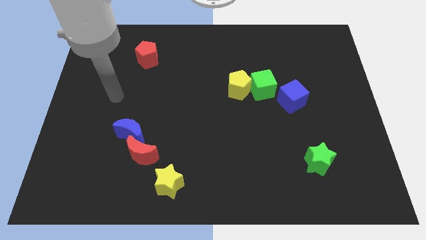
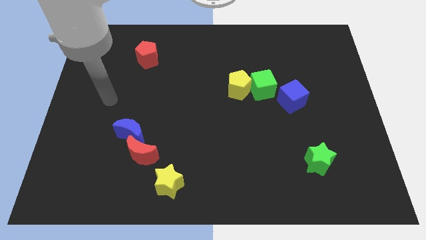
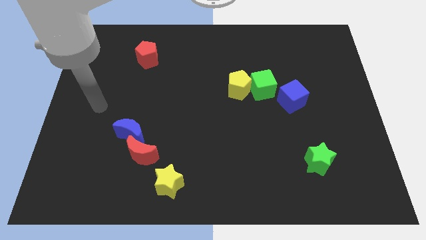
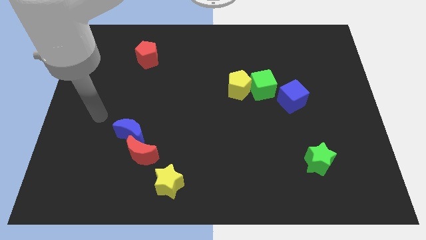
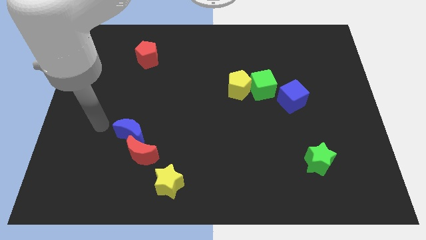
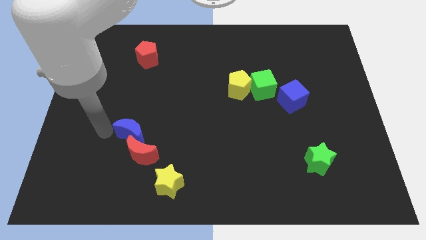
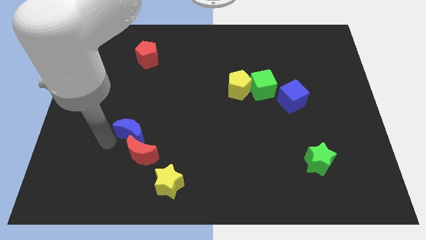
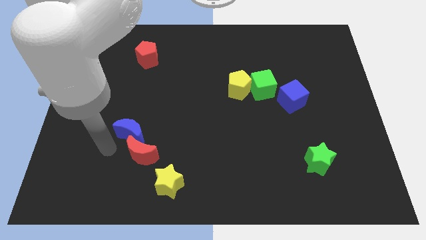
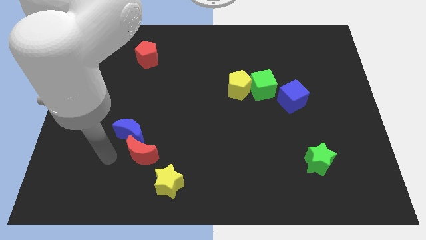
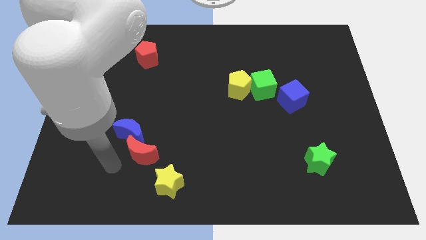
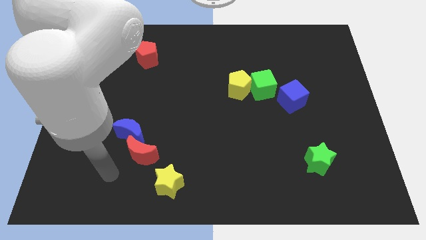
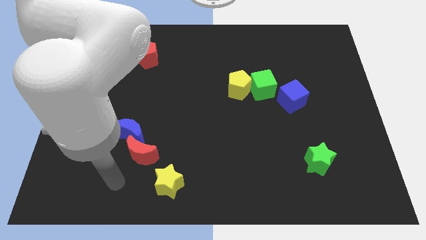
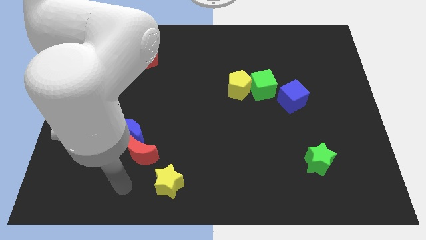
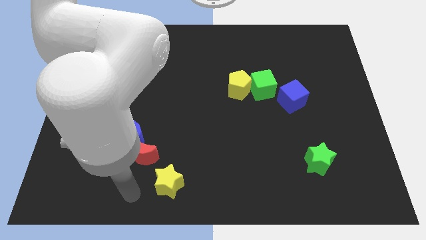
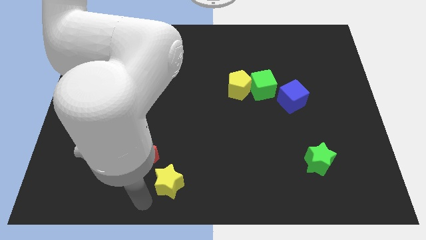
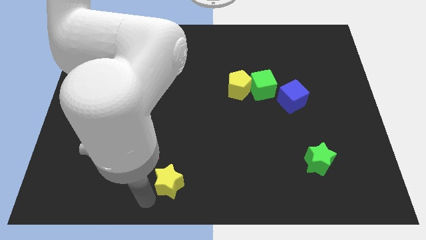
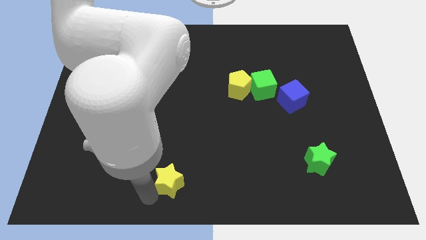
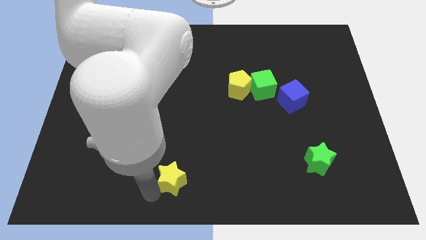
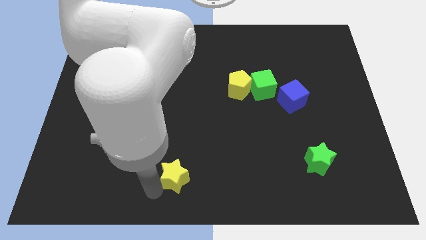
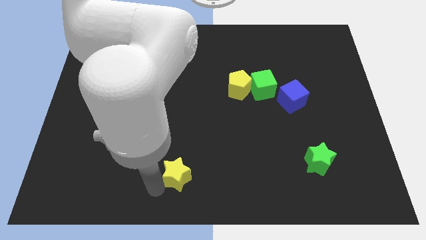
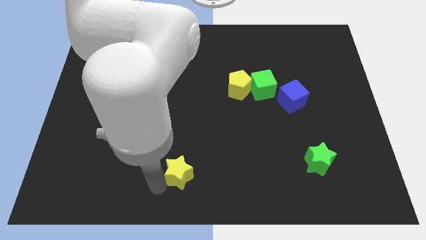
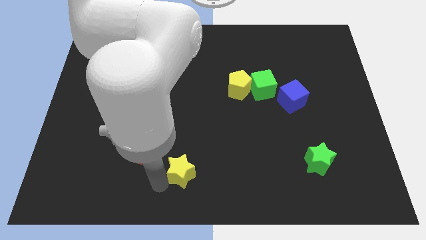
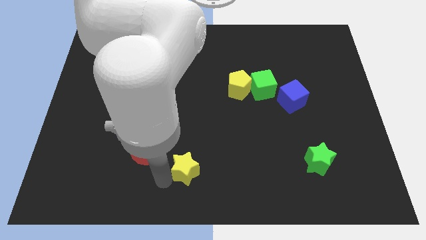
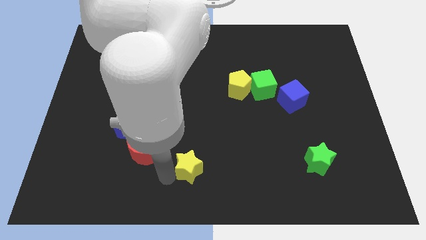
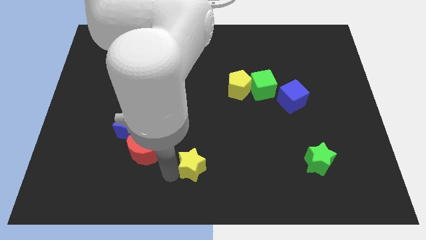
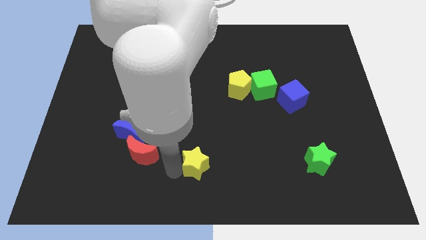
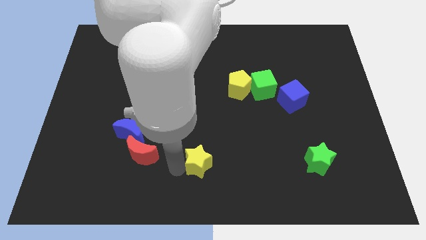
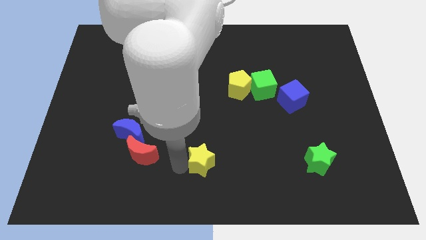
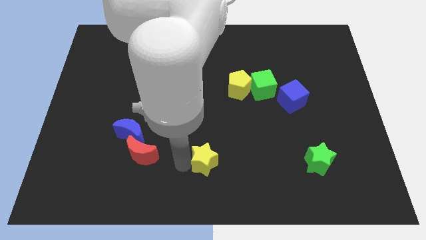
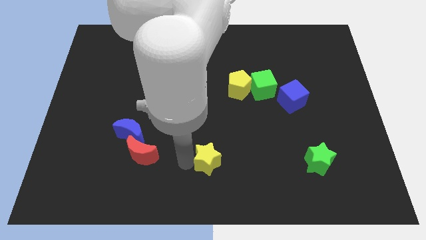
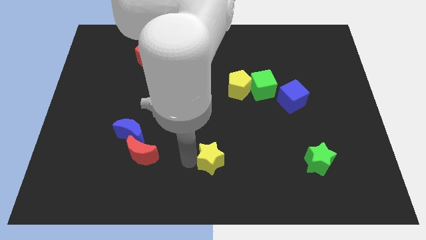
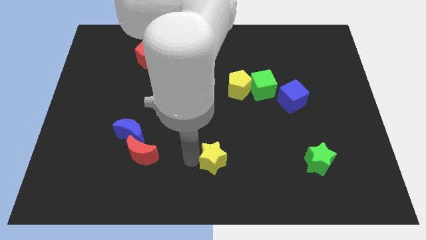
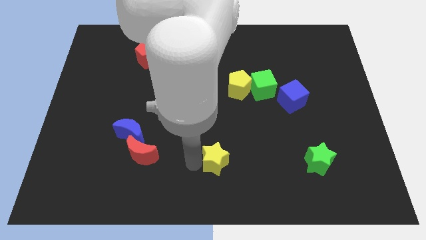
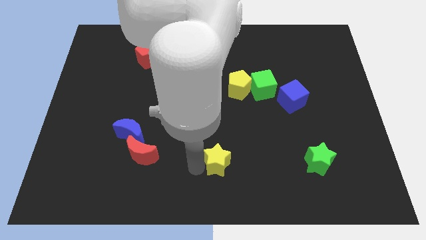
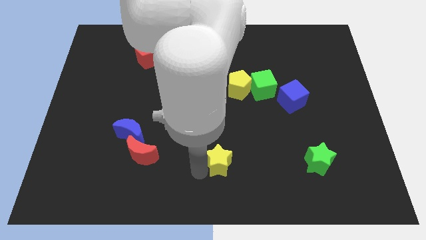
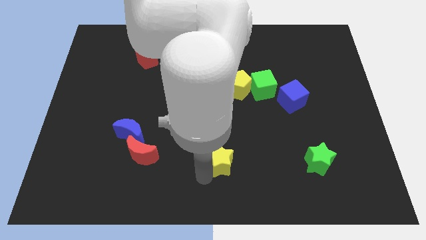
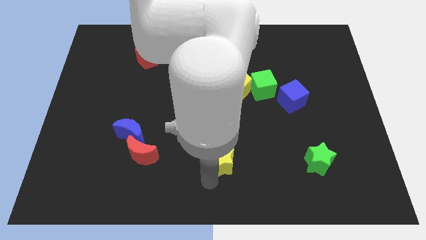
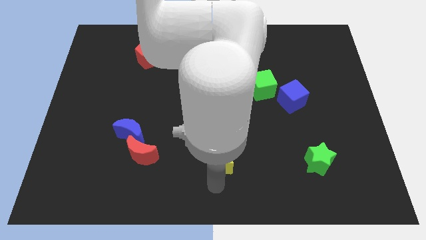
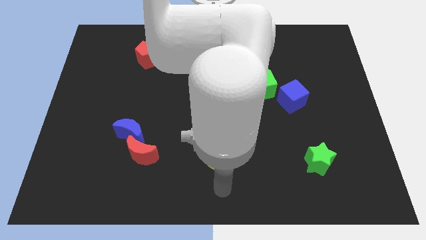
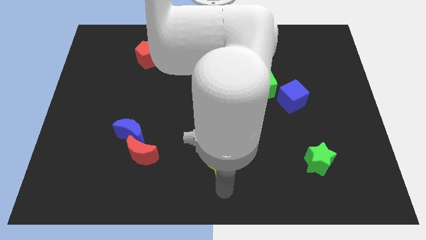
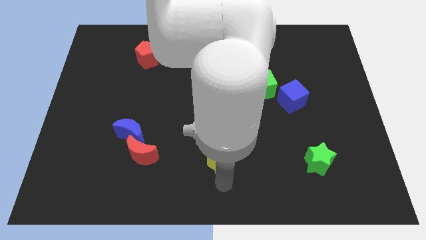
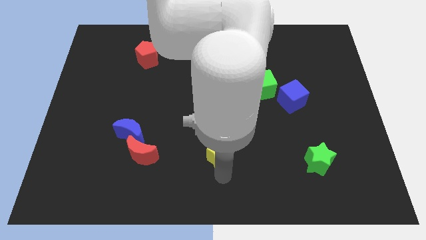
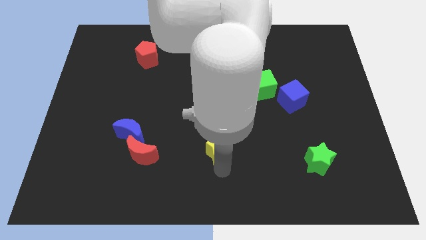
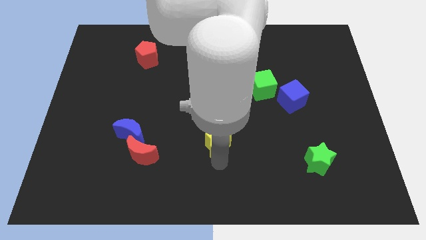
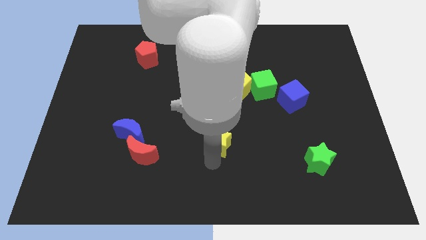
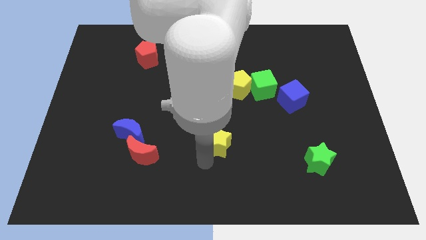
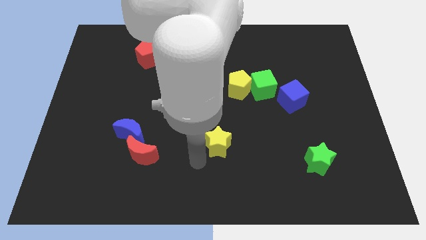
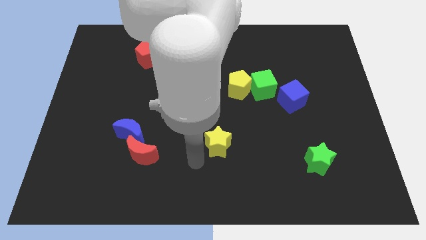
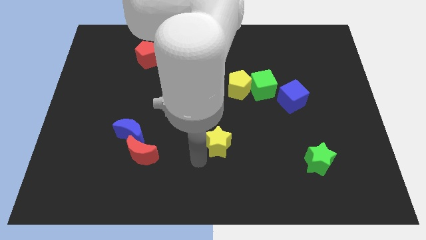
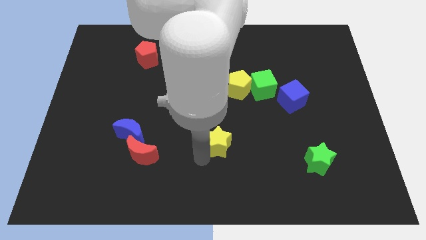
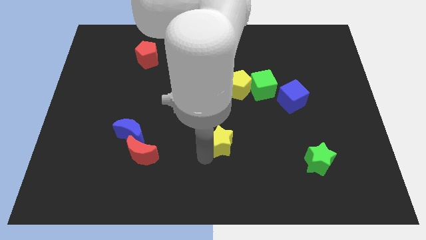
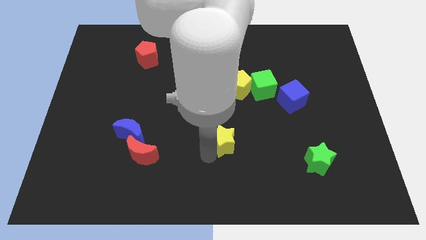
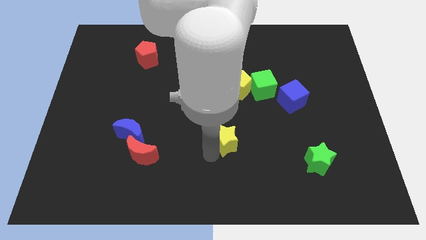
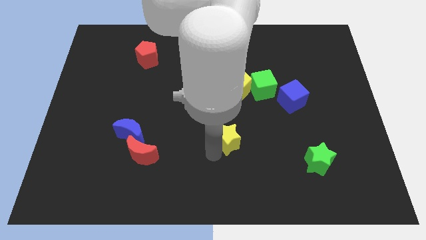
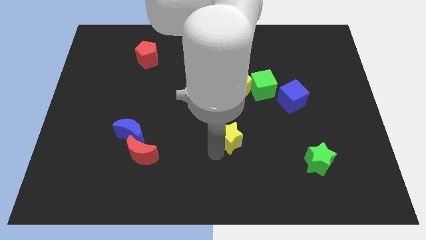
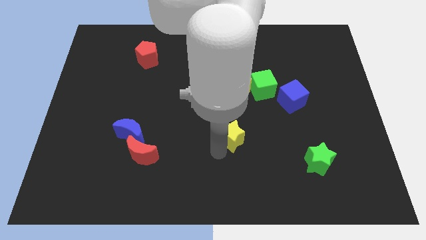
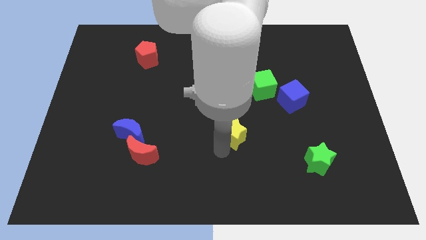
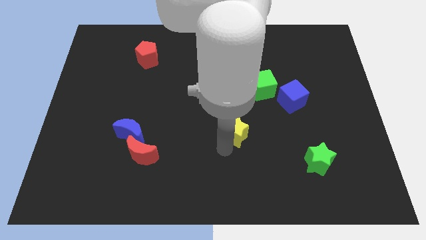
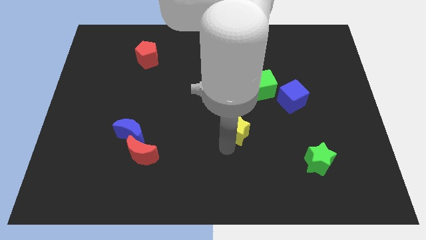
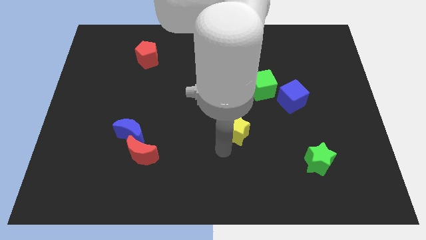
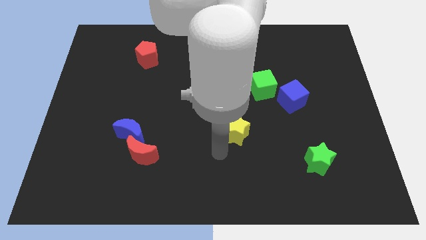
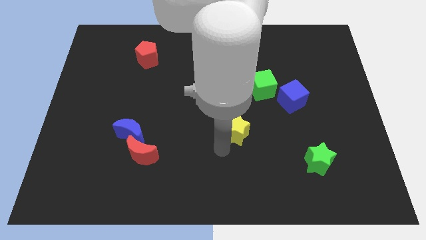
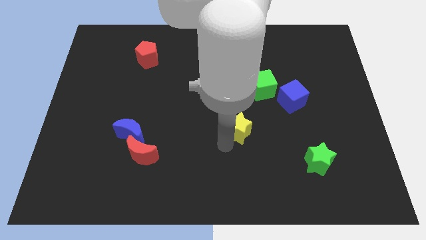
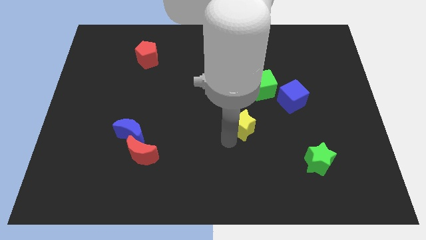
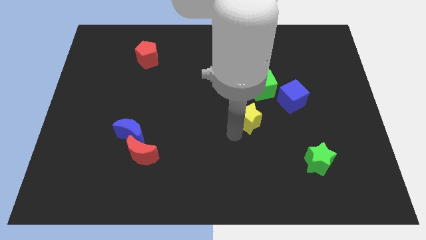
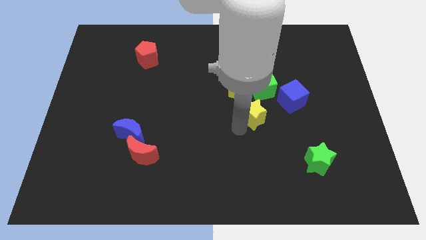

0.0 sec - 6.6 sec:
push the yellow star to the bottom right of the yellow pentagon

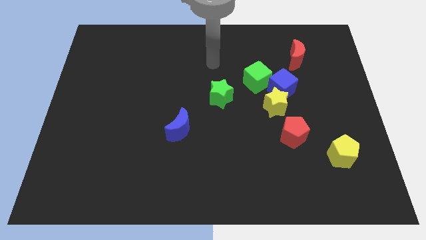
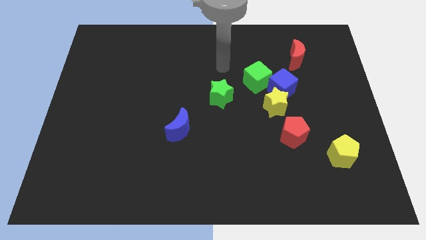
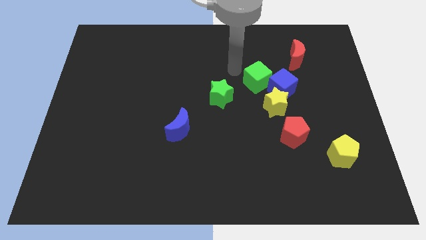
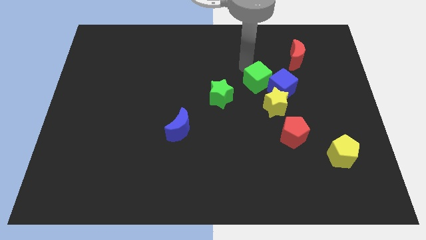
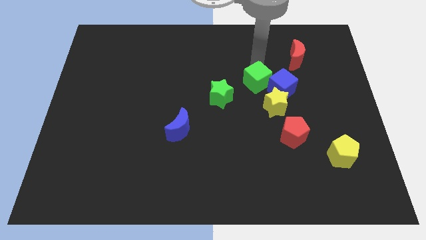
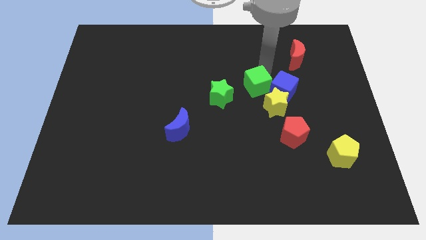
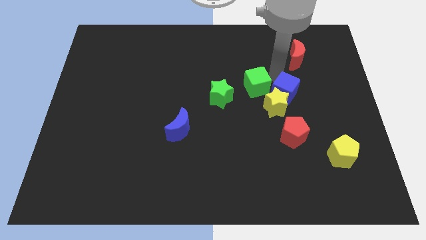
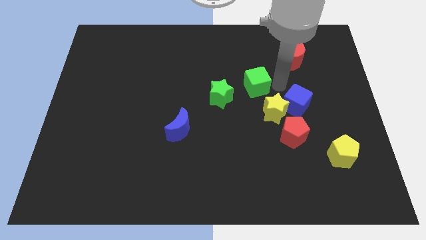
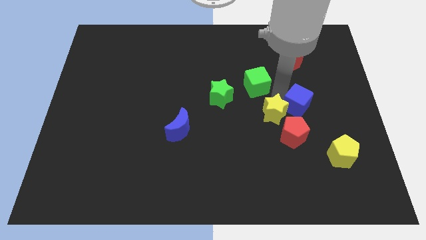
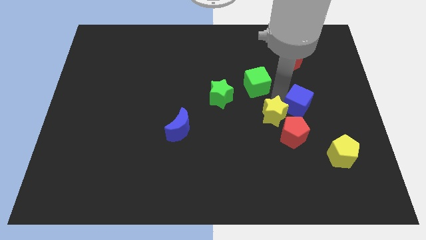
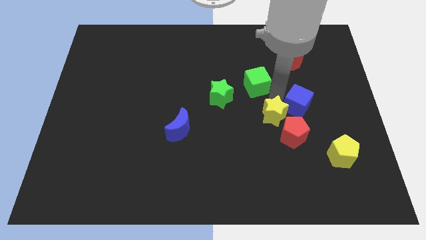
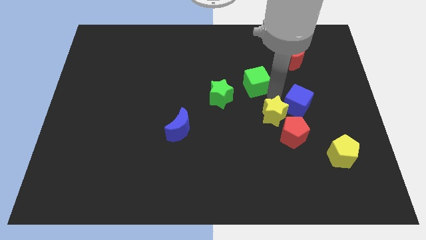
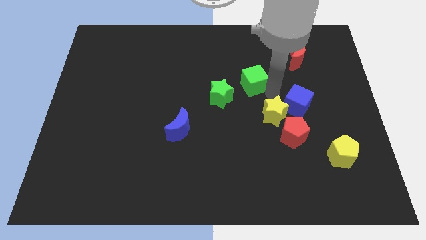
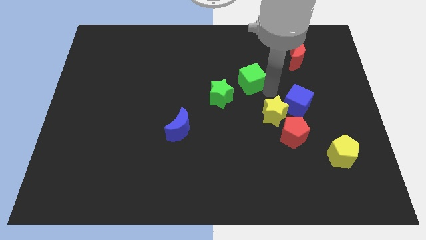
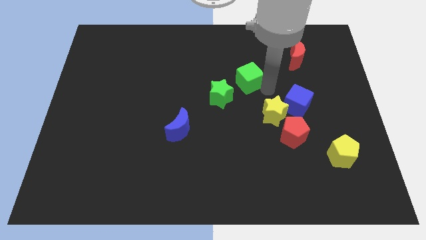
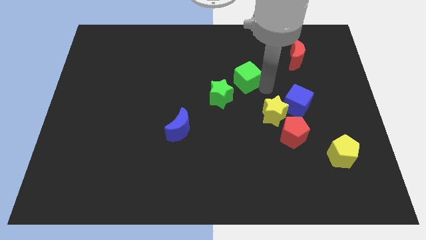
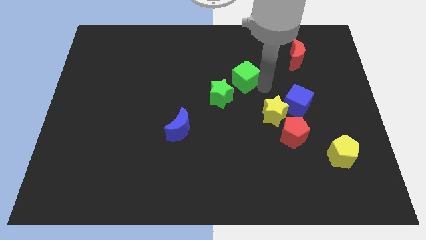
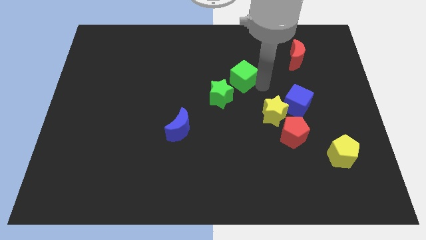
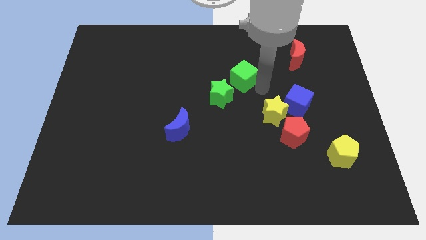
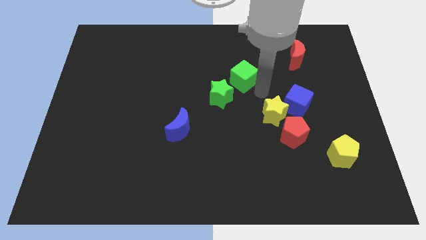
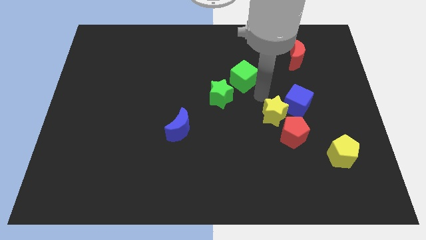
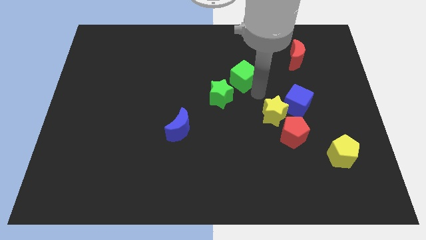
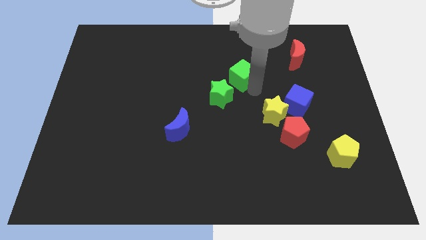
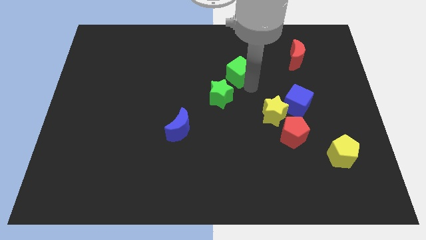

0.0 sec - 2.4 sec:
move the green cube to the top side of the green star
